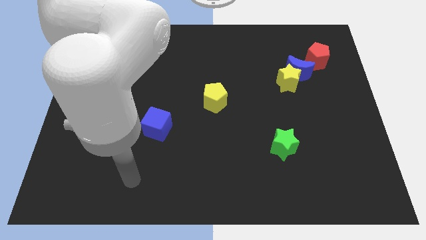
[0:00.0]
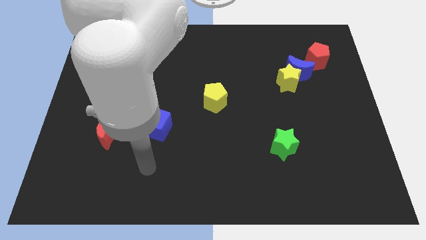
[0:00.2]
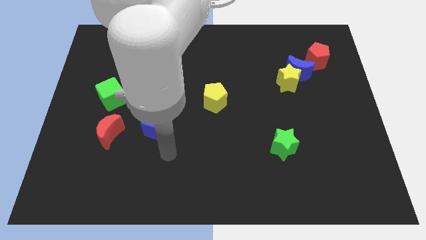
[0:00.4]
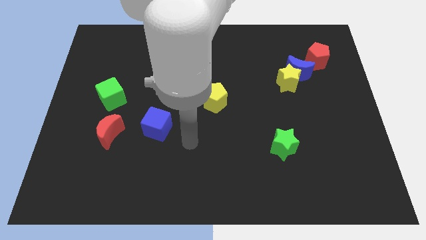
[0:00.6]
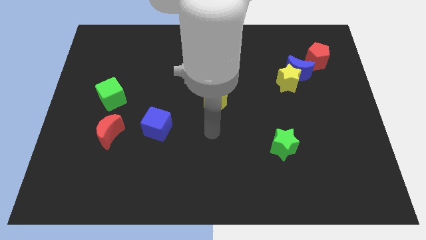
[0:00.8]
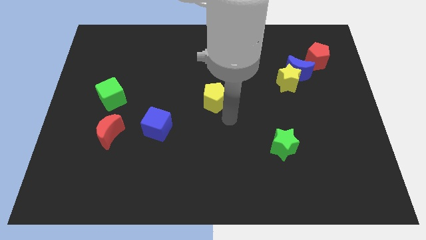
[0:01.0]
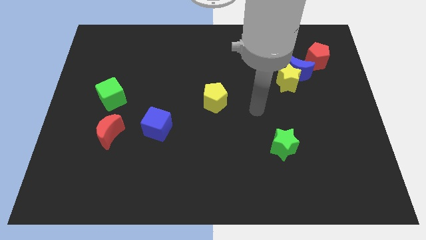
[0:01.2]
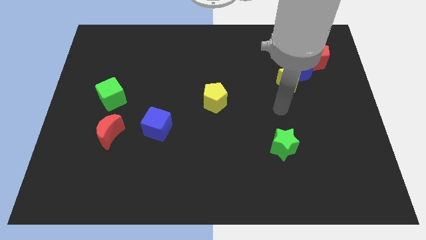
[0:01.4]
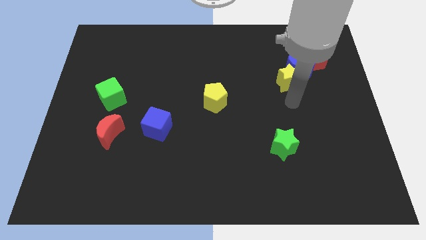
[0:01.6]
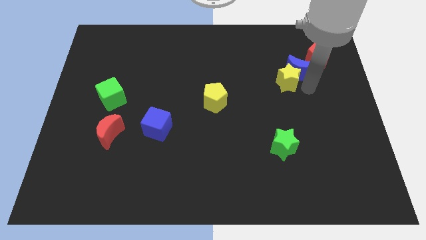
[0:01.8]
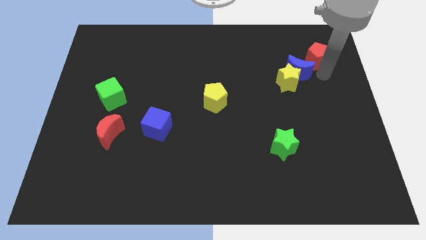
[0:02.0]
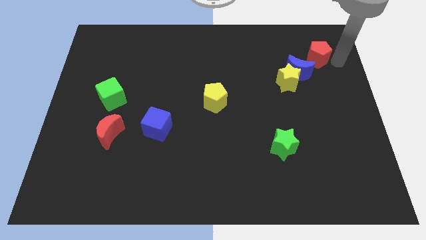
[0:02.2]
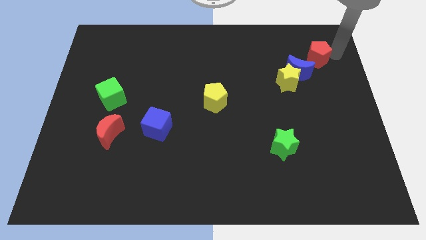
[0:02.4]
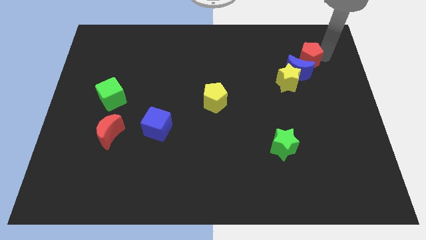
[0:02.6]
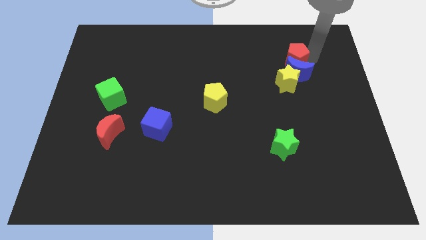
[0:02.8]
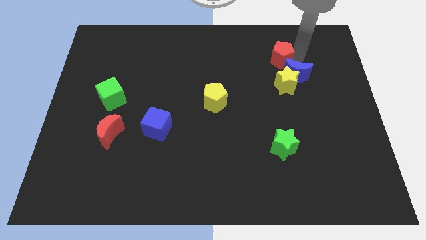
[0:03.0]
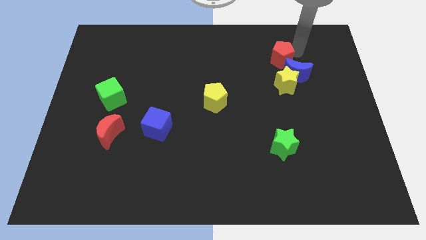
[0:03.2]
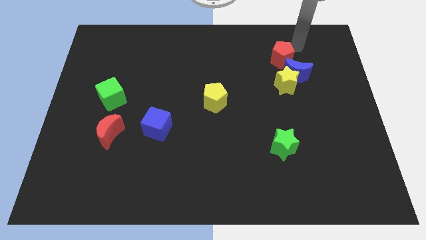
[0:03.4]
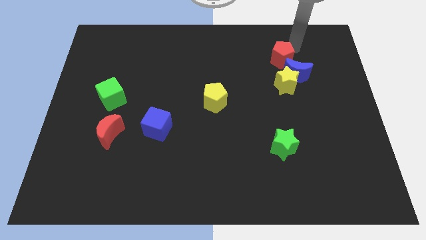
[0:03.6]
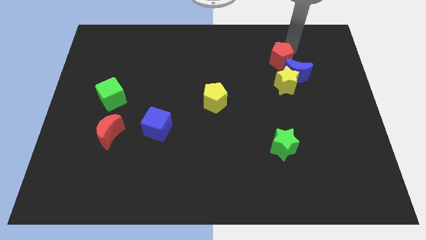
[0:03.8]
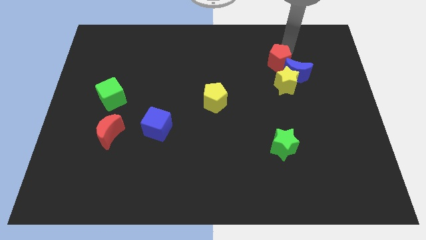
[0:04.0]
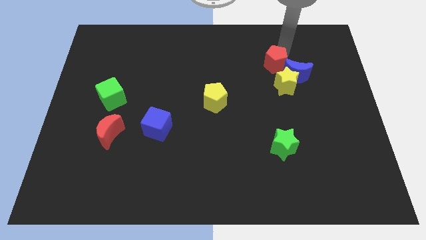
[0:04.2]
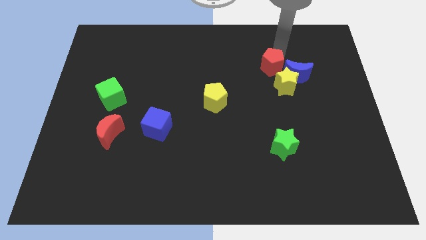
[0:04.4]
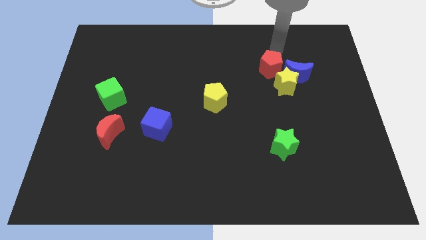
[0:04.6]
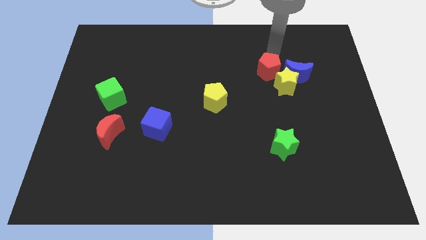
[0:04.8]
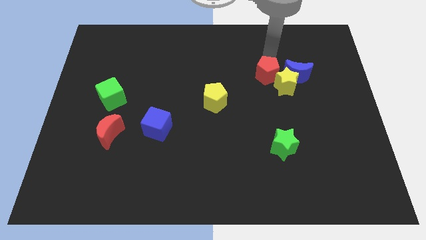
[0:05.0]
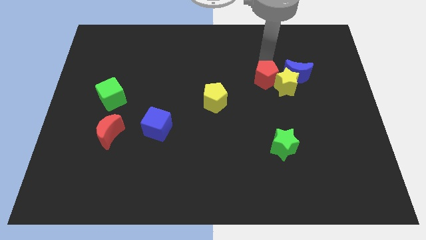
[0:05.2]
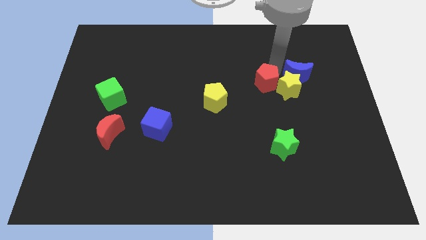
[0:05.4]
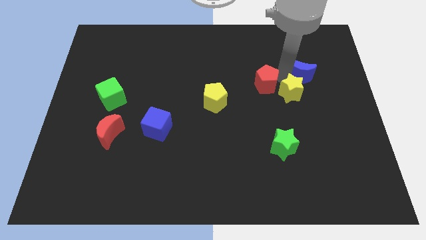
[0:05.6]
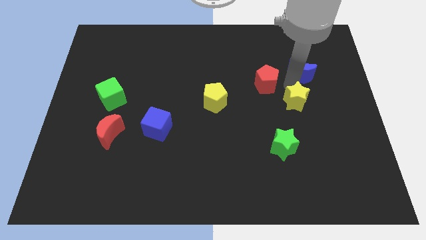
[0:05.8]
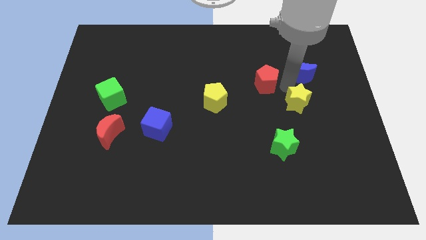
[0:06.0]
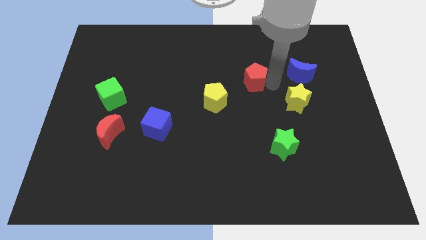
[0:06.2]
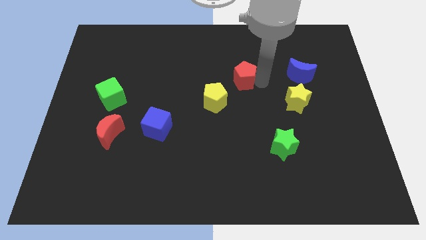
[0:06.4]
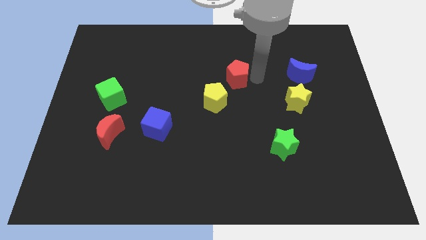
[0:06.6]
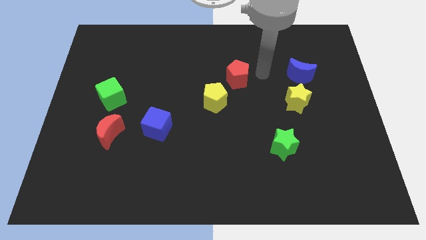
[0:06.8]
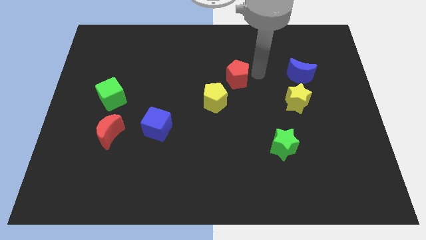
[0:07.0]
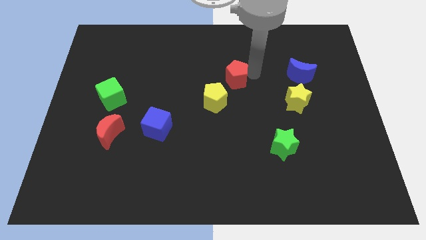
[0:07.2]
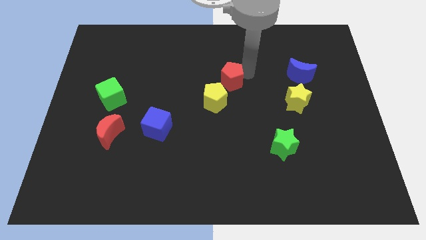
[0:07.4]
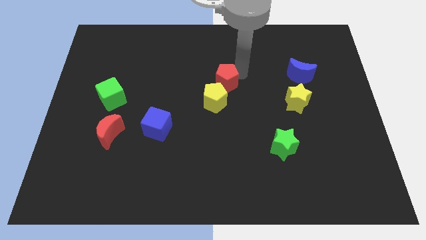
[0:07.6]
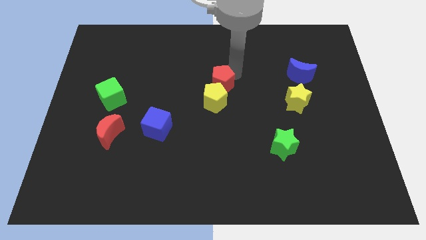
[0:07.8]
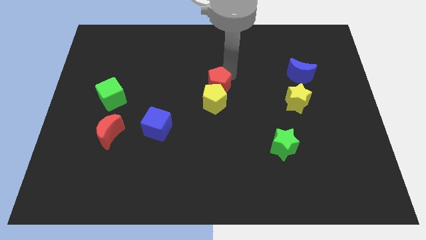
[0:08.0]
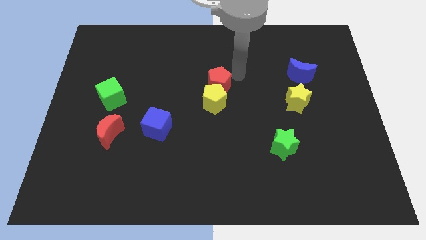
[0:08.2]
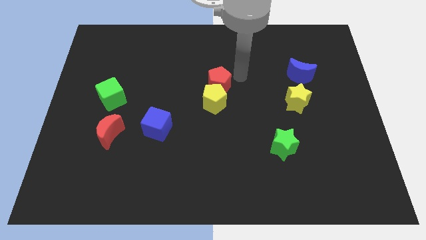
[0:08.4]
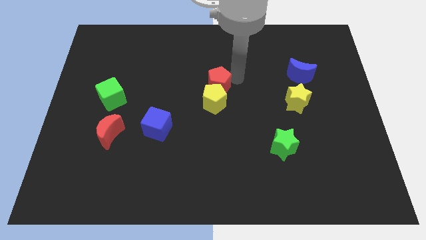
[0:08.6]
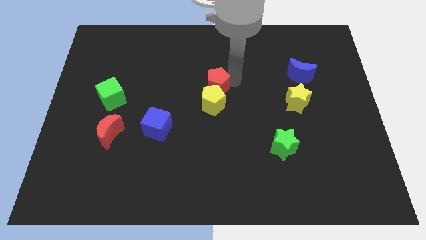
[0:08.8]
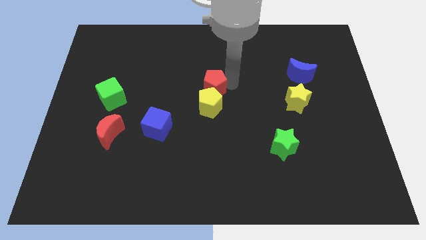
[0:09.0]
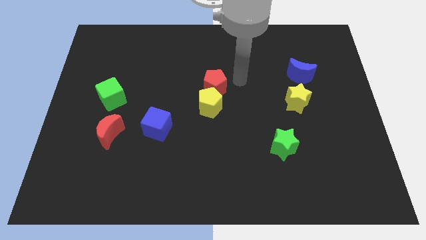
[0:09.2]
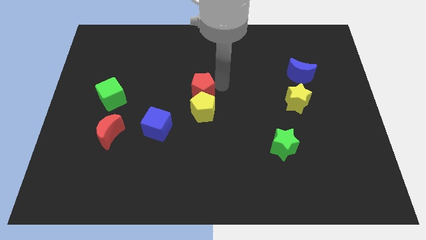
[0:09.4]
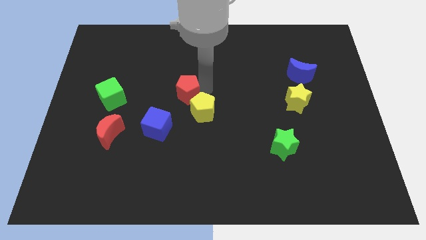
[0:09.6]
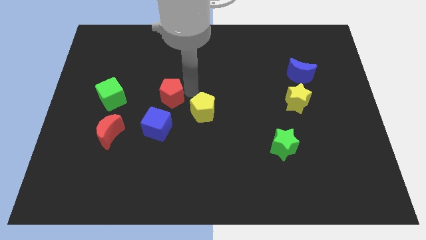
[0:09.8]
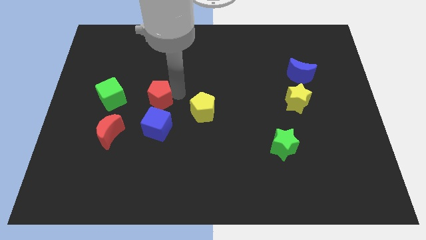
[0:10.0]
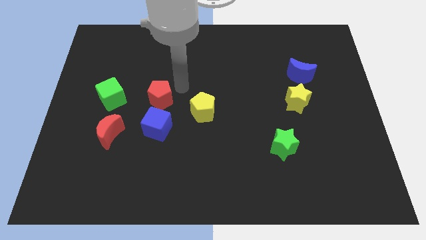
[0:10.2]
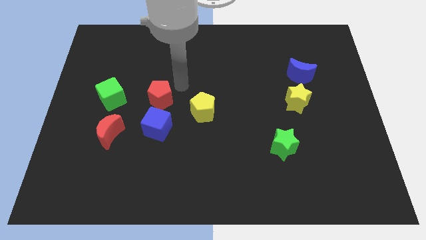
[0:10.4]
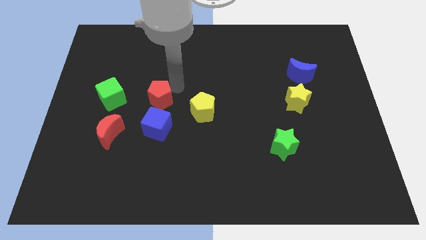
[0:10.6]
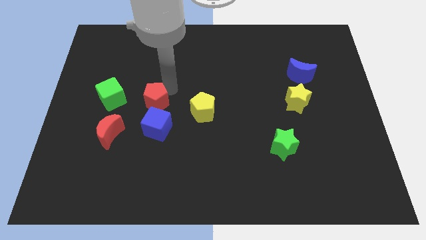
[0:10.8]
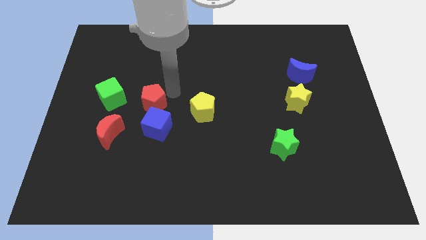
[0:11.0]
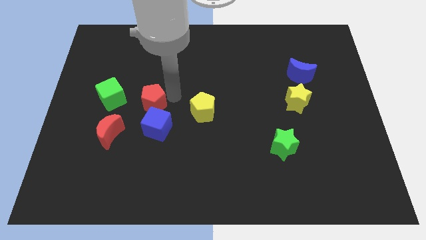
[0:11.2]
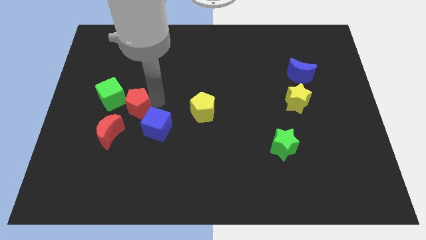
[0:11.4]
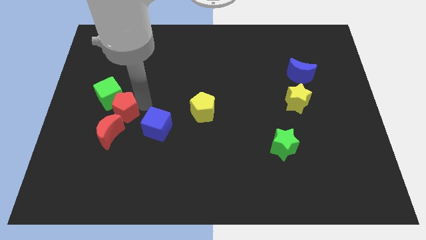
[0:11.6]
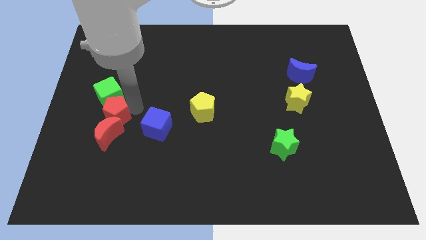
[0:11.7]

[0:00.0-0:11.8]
push the red pentagon diagonally up and to the left of the red moon

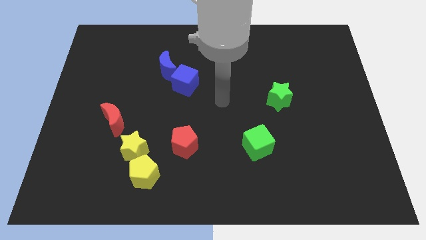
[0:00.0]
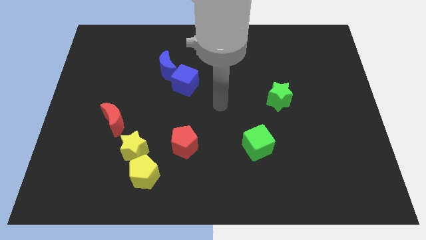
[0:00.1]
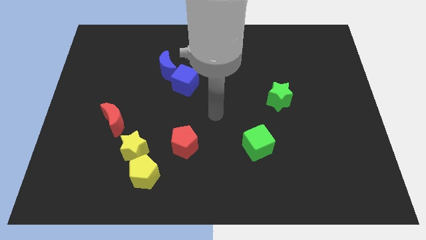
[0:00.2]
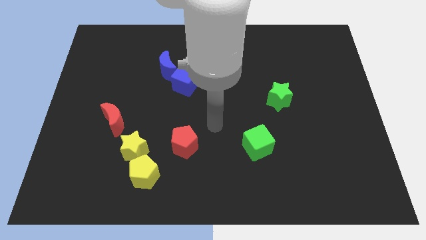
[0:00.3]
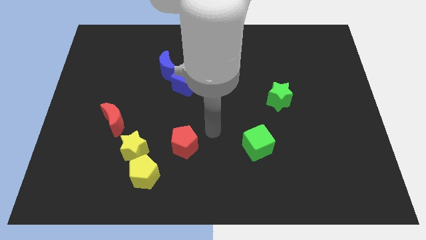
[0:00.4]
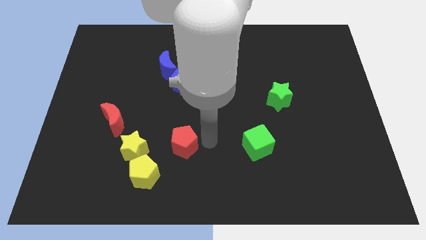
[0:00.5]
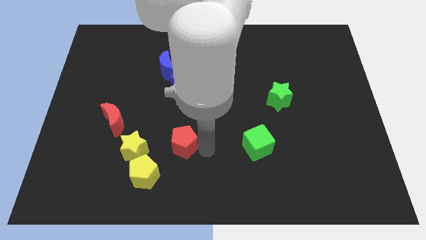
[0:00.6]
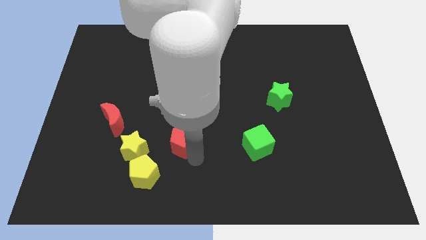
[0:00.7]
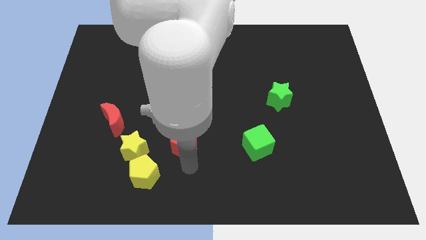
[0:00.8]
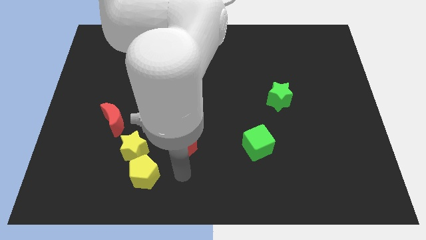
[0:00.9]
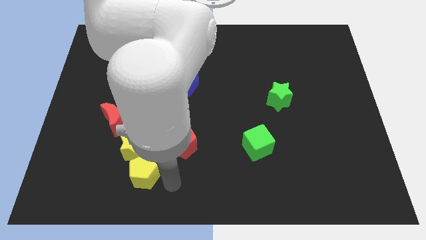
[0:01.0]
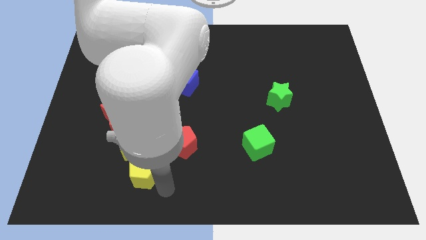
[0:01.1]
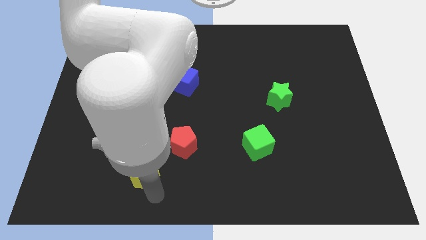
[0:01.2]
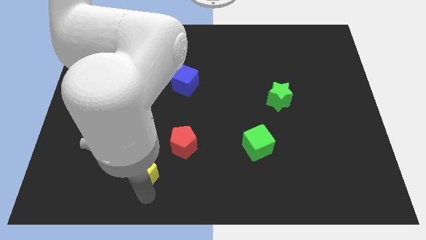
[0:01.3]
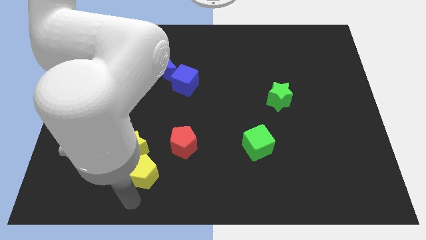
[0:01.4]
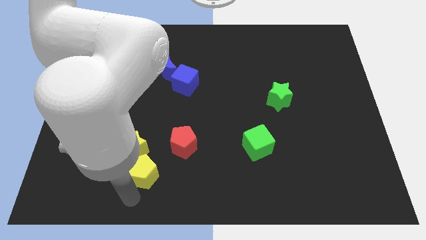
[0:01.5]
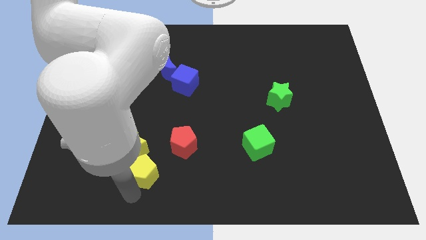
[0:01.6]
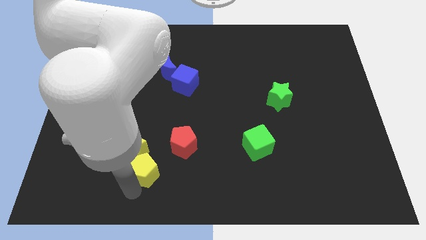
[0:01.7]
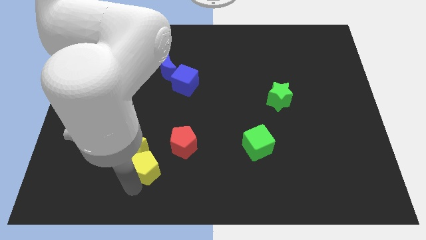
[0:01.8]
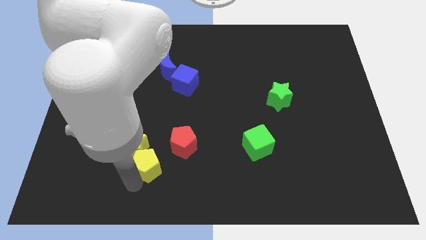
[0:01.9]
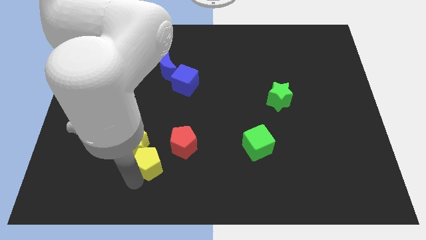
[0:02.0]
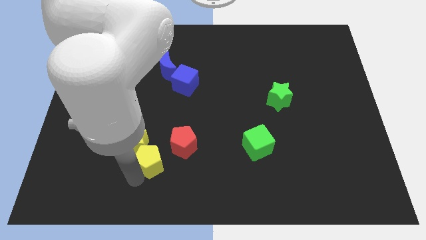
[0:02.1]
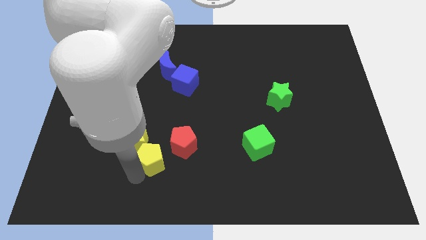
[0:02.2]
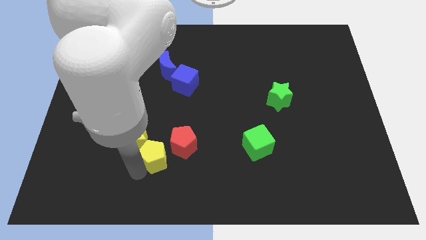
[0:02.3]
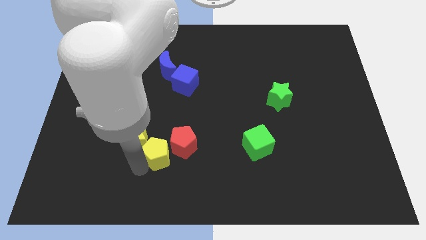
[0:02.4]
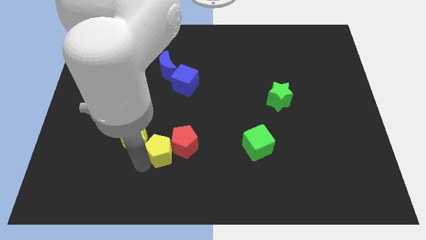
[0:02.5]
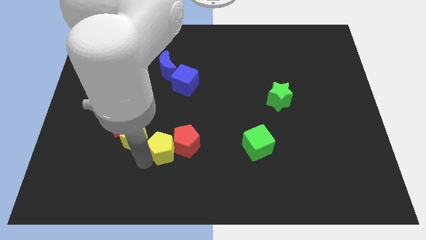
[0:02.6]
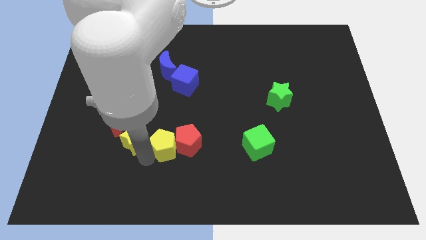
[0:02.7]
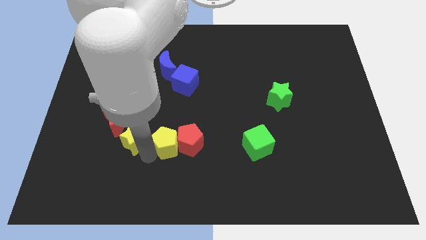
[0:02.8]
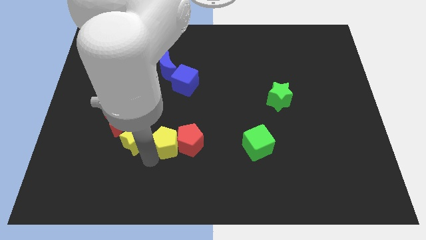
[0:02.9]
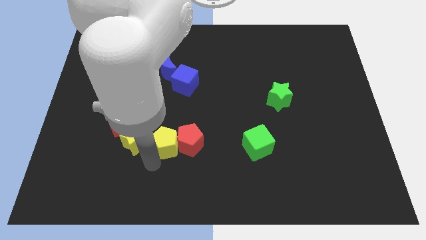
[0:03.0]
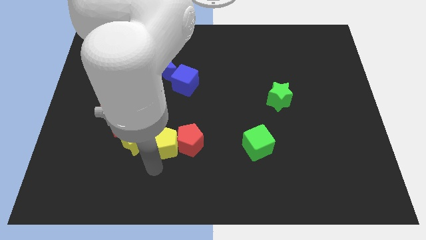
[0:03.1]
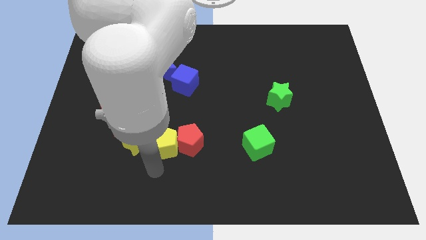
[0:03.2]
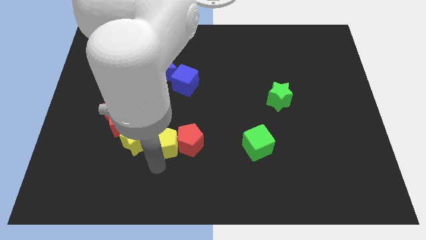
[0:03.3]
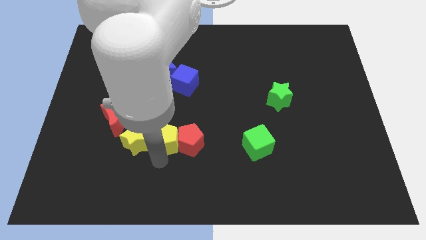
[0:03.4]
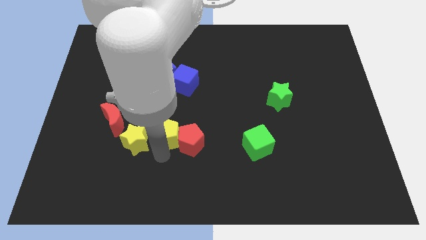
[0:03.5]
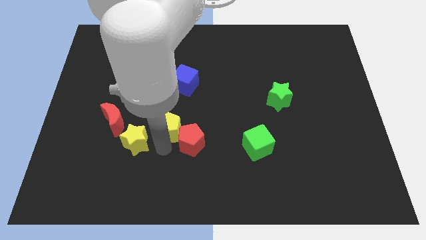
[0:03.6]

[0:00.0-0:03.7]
move the yellow pentagon to the bottom side of the blue cube
